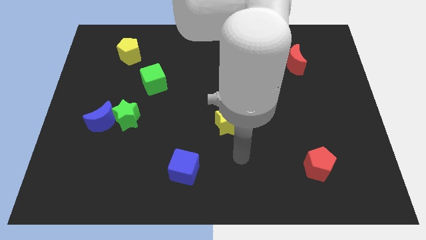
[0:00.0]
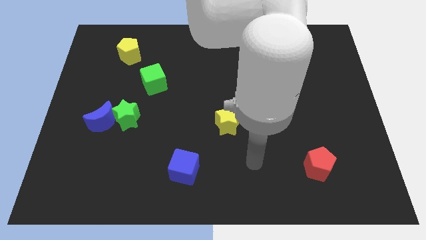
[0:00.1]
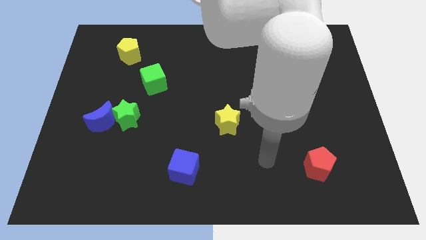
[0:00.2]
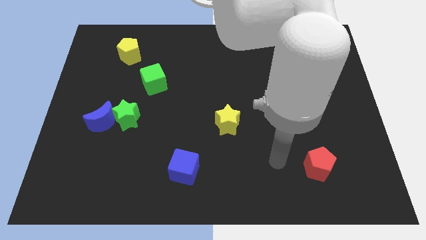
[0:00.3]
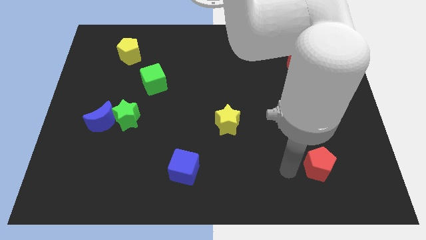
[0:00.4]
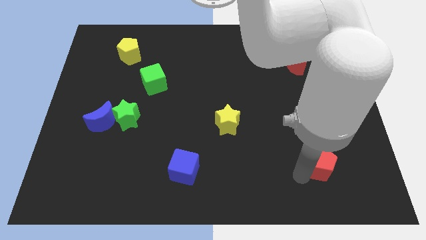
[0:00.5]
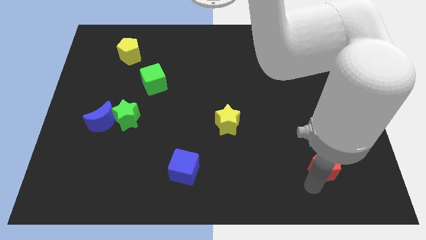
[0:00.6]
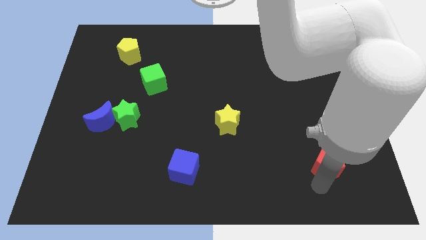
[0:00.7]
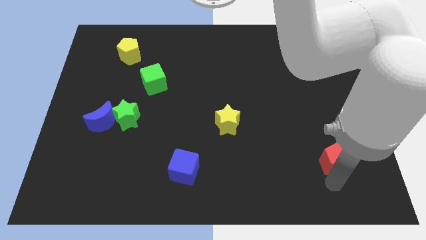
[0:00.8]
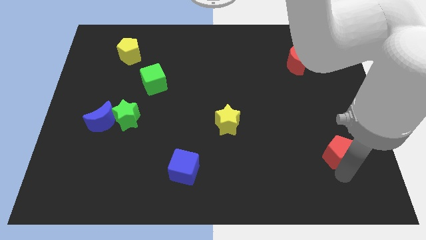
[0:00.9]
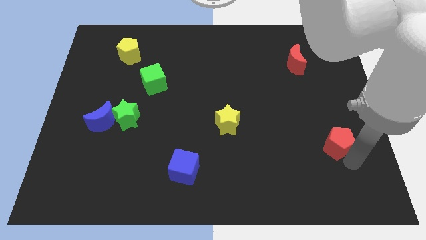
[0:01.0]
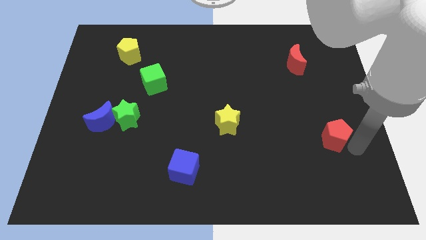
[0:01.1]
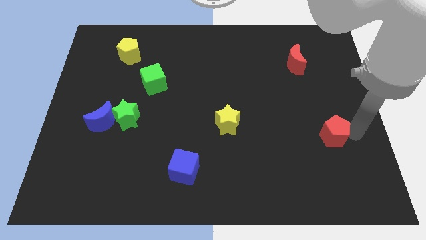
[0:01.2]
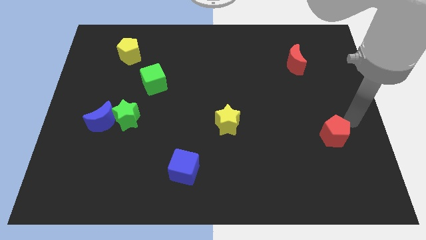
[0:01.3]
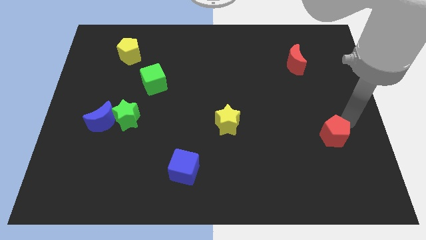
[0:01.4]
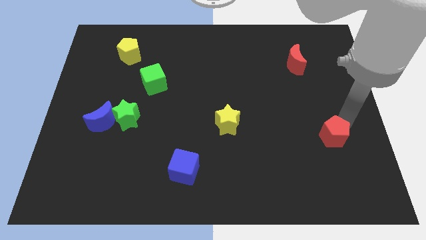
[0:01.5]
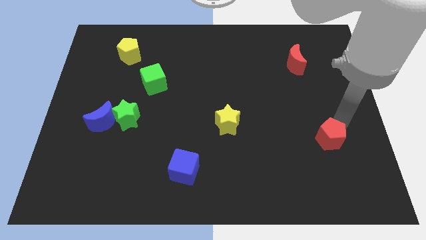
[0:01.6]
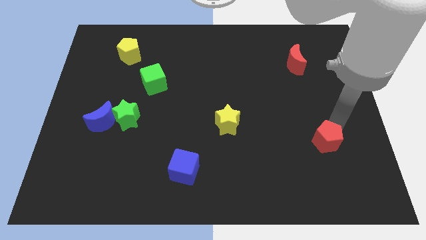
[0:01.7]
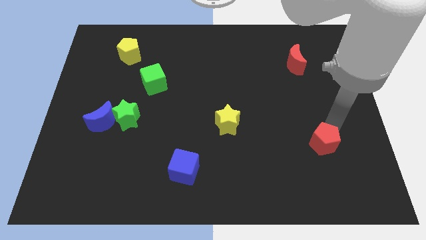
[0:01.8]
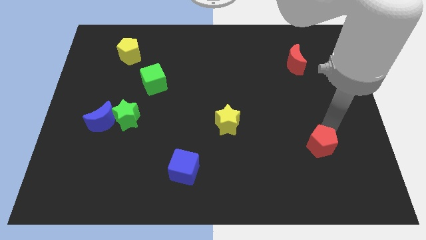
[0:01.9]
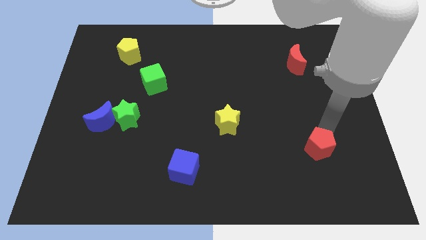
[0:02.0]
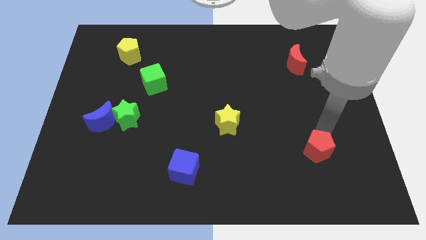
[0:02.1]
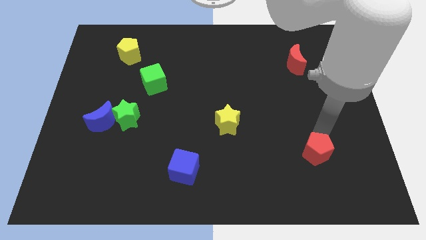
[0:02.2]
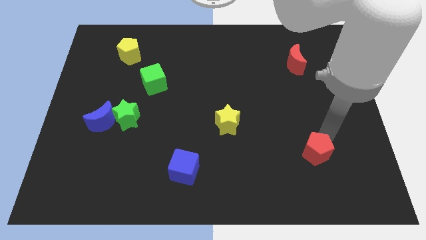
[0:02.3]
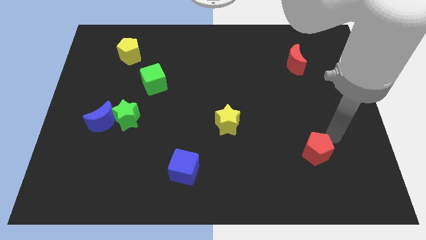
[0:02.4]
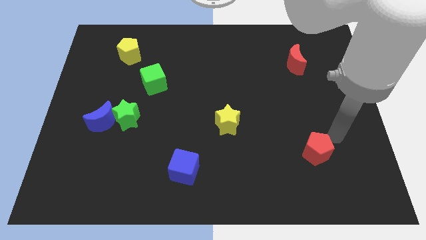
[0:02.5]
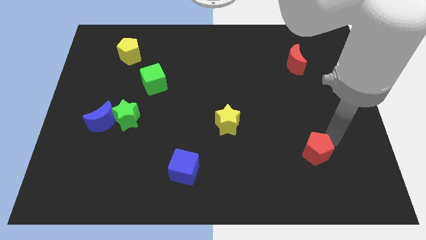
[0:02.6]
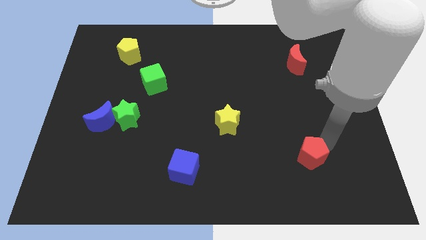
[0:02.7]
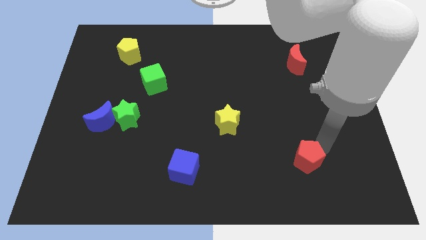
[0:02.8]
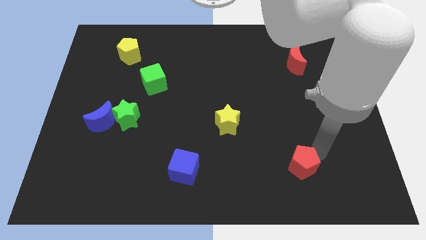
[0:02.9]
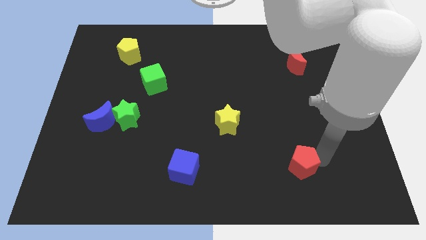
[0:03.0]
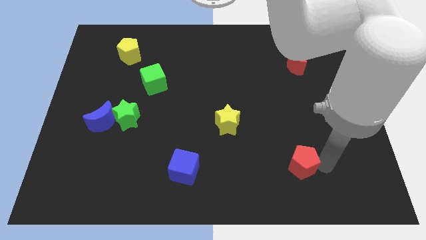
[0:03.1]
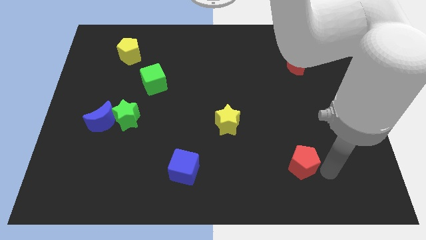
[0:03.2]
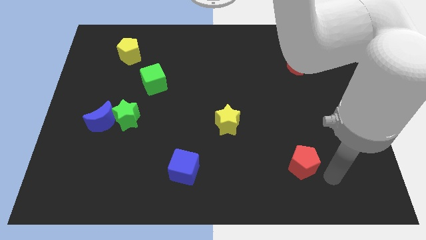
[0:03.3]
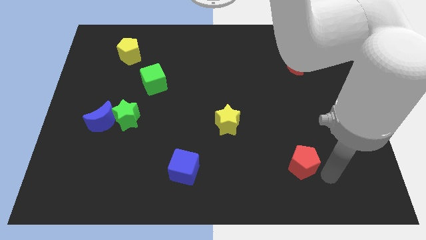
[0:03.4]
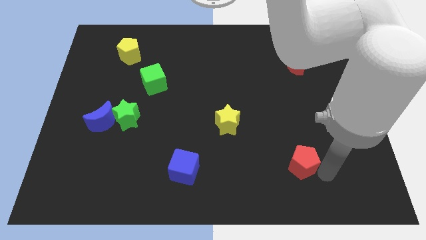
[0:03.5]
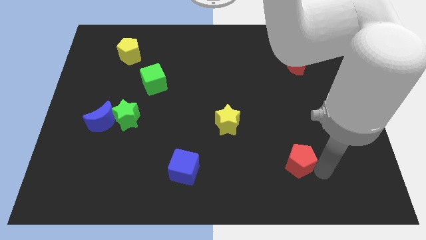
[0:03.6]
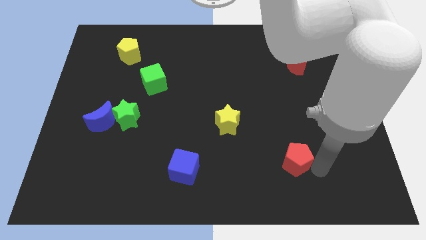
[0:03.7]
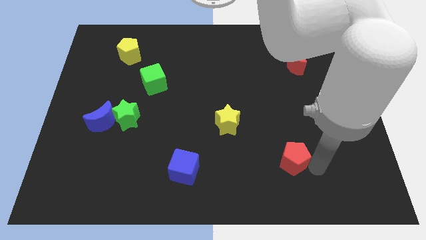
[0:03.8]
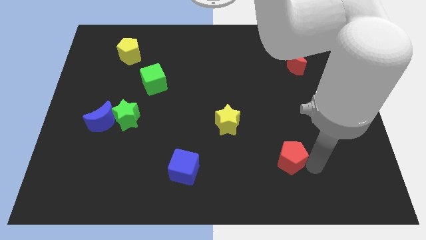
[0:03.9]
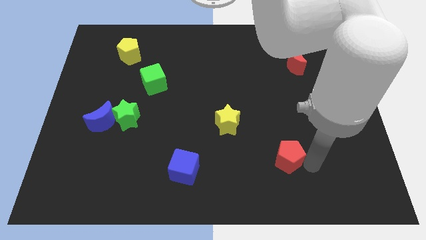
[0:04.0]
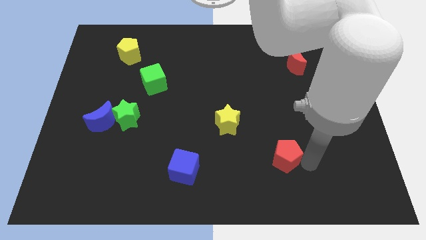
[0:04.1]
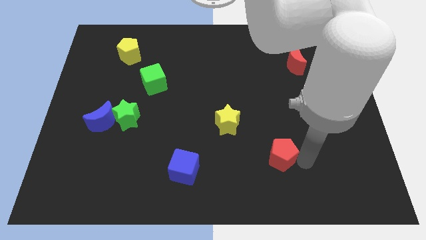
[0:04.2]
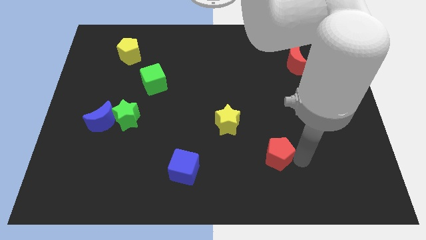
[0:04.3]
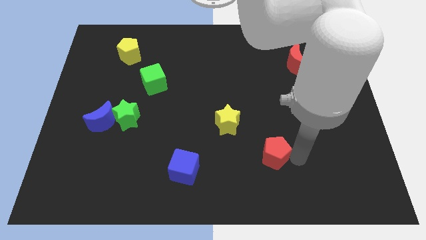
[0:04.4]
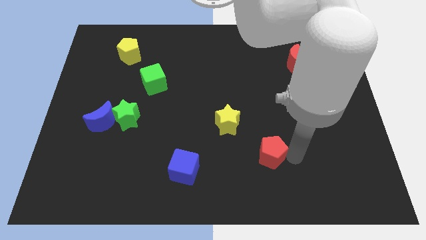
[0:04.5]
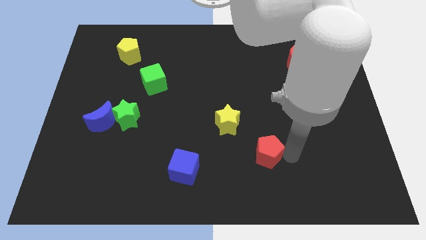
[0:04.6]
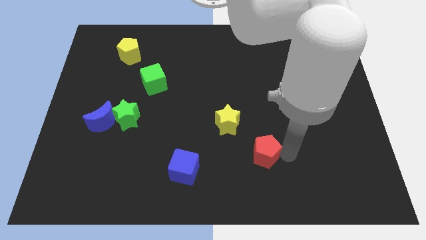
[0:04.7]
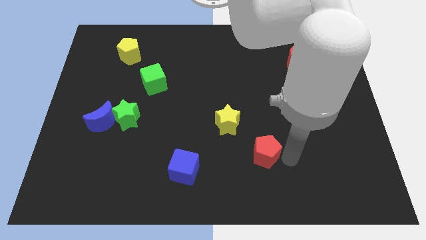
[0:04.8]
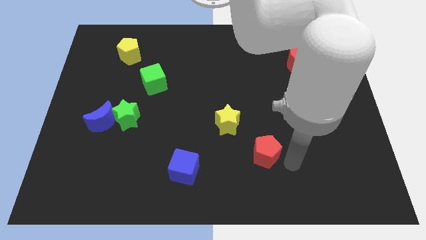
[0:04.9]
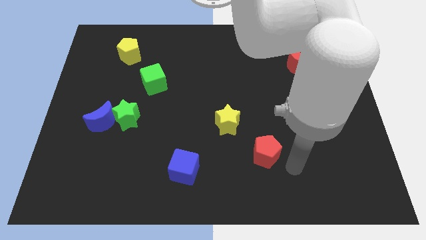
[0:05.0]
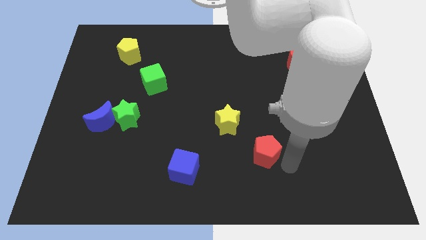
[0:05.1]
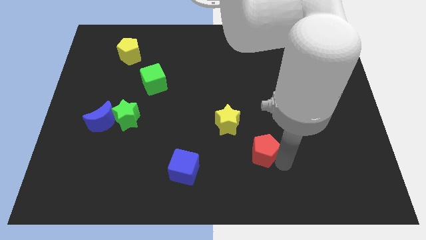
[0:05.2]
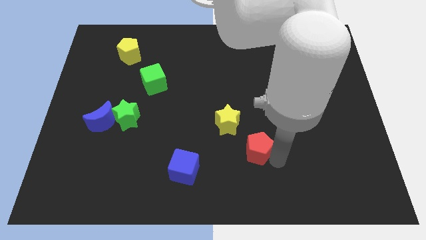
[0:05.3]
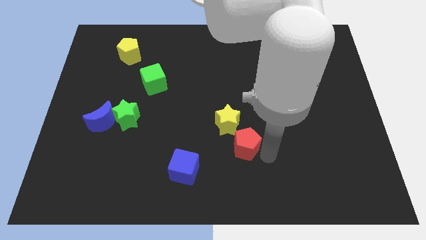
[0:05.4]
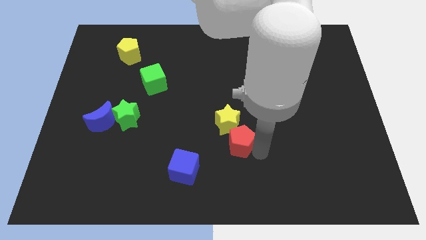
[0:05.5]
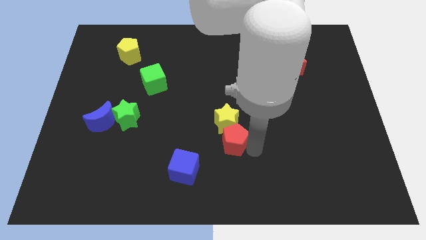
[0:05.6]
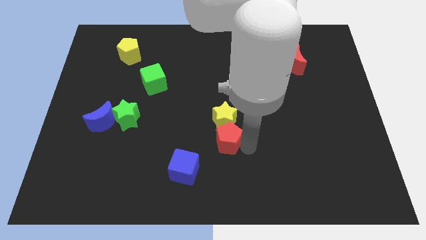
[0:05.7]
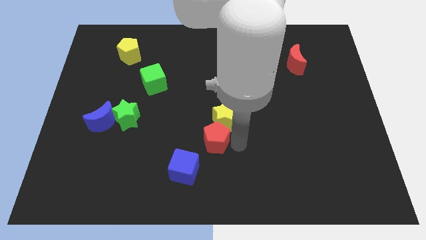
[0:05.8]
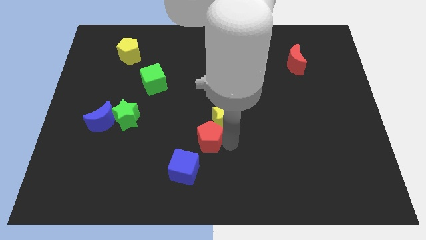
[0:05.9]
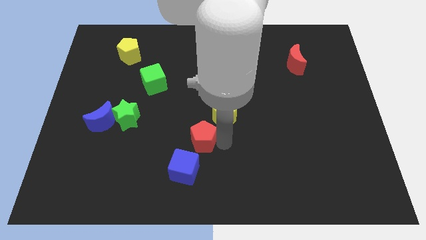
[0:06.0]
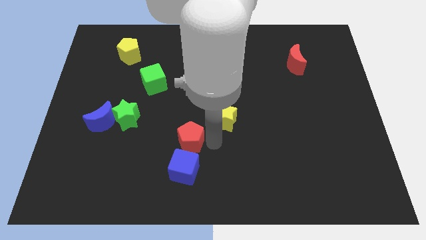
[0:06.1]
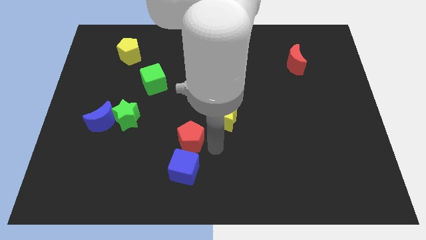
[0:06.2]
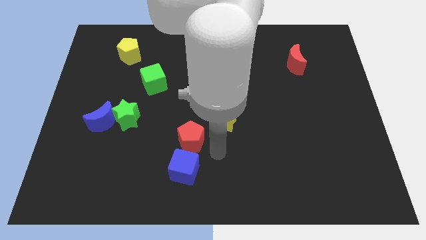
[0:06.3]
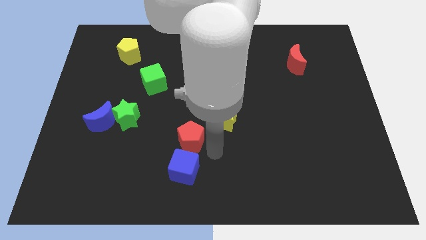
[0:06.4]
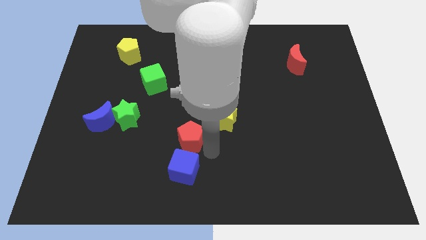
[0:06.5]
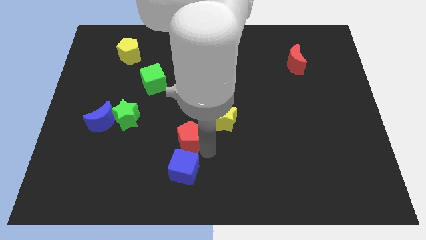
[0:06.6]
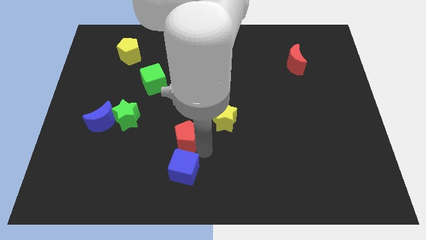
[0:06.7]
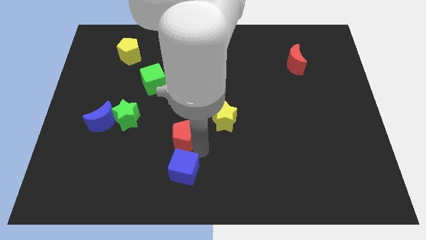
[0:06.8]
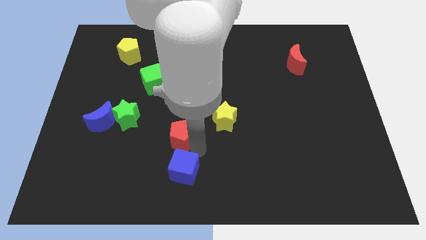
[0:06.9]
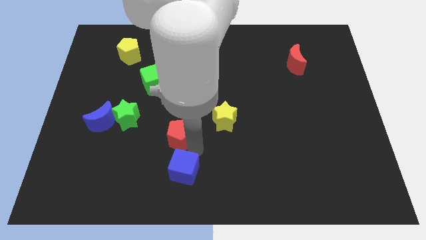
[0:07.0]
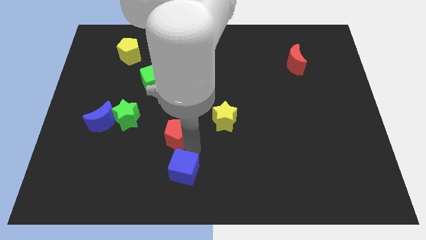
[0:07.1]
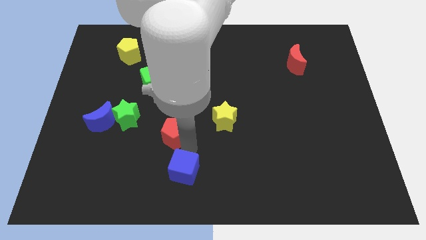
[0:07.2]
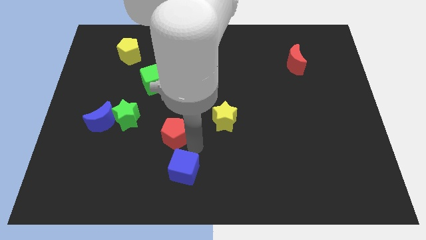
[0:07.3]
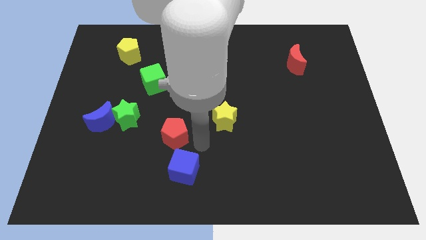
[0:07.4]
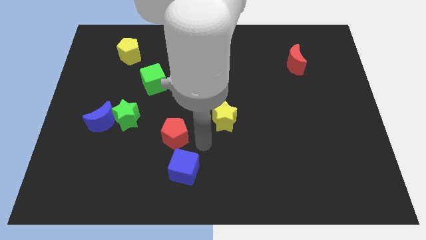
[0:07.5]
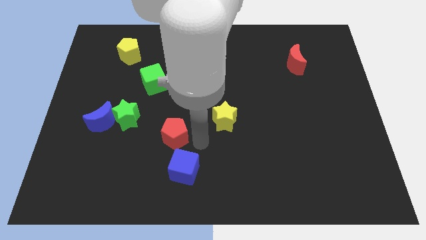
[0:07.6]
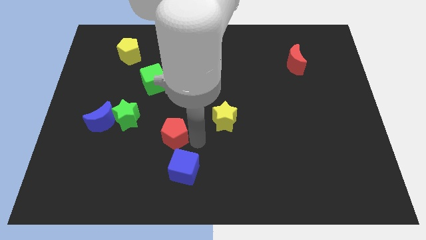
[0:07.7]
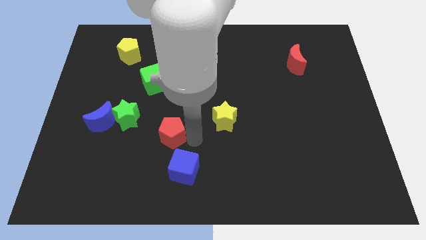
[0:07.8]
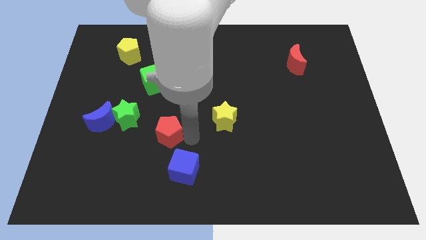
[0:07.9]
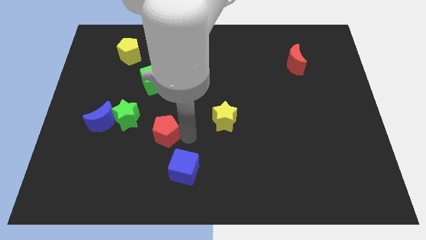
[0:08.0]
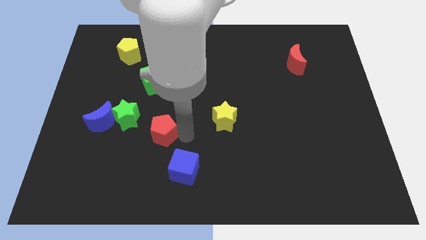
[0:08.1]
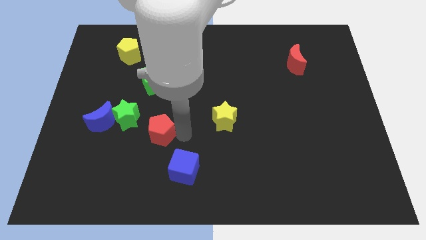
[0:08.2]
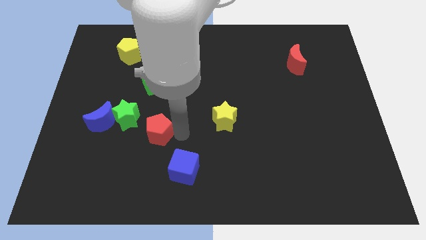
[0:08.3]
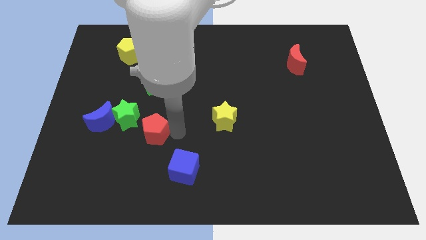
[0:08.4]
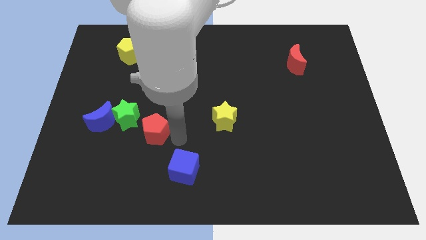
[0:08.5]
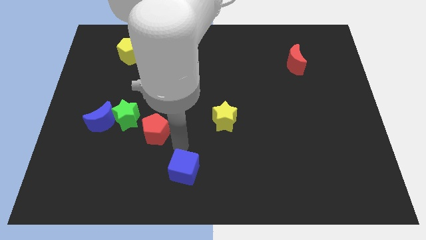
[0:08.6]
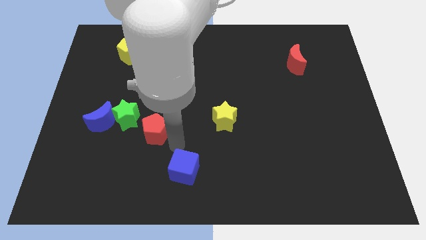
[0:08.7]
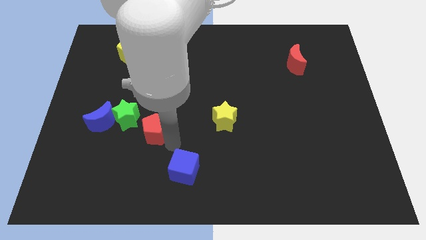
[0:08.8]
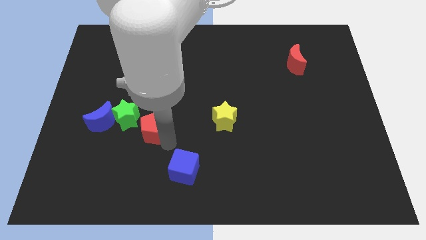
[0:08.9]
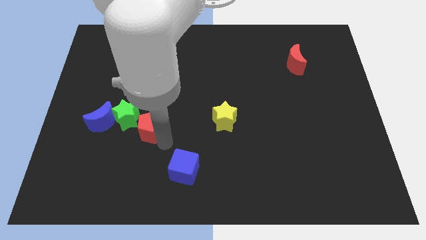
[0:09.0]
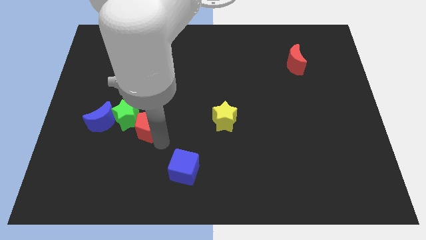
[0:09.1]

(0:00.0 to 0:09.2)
move the red pentagon next to the green star
